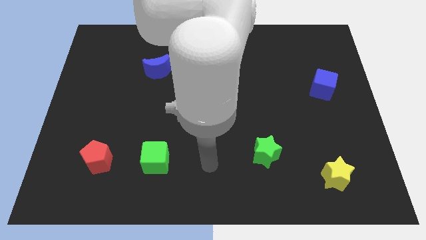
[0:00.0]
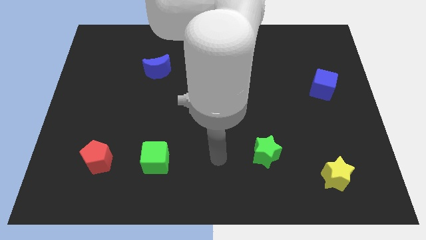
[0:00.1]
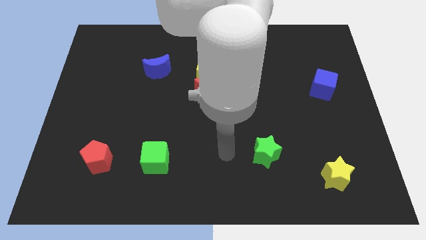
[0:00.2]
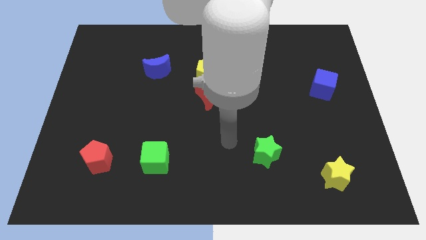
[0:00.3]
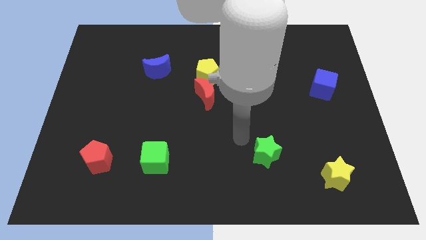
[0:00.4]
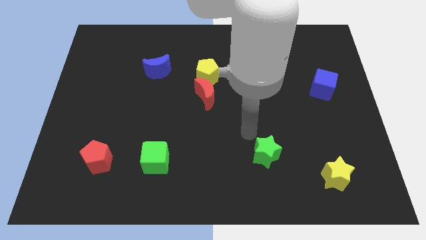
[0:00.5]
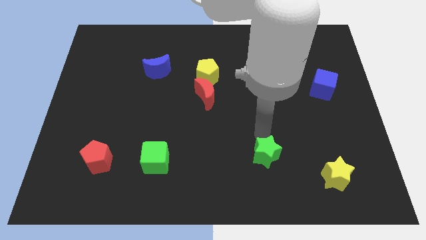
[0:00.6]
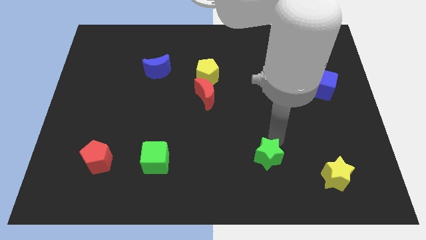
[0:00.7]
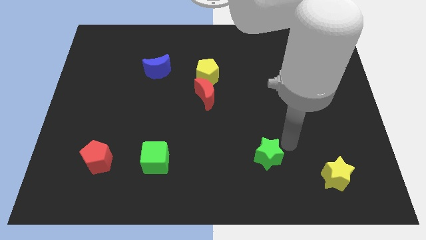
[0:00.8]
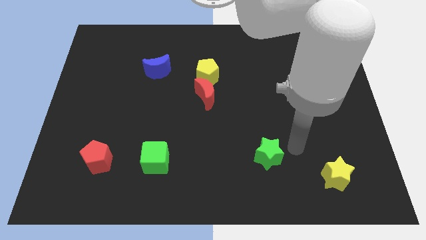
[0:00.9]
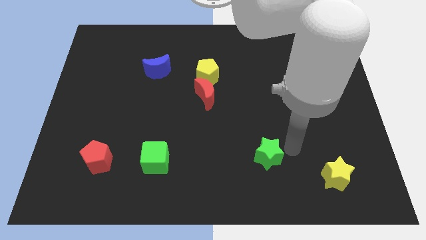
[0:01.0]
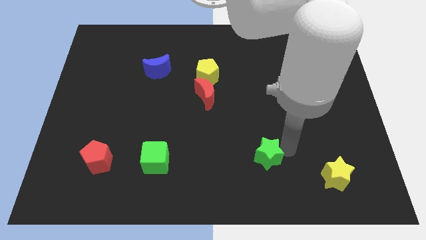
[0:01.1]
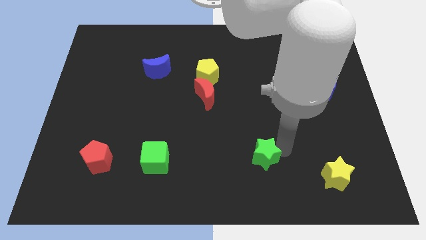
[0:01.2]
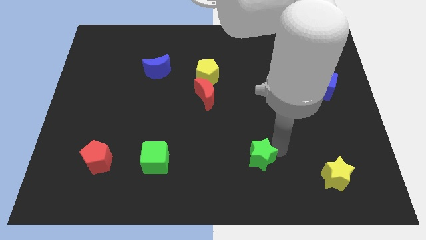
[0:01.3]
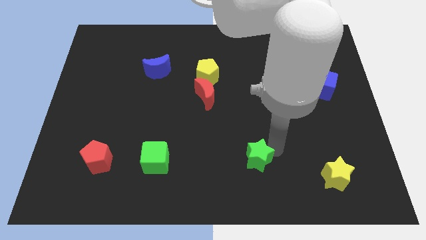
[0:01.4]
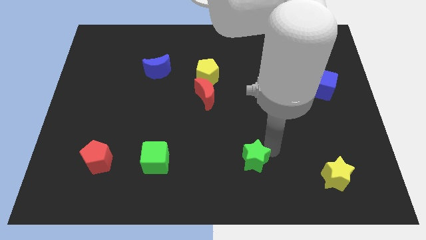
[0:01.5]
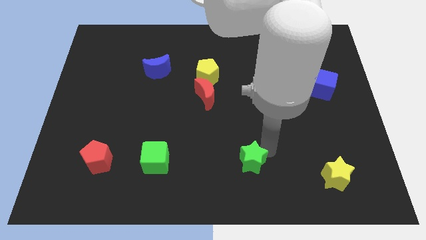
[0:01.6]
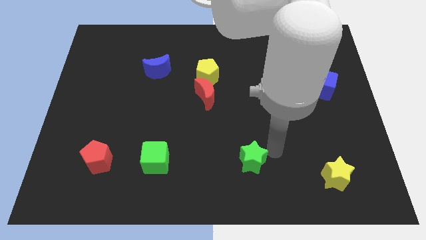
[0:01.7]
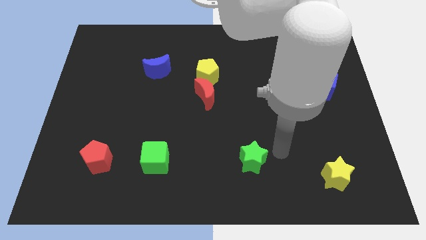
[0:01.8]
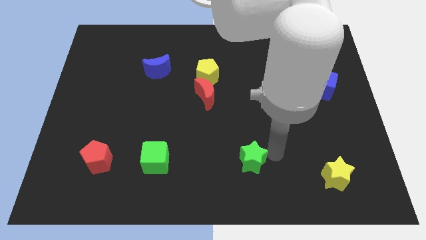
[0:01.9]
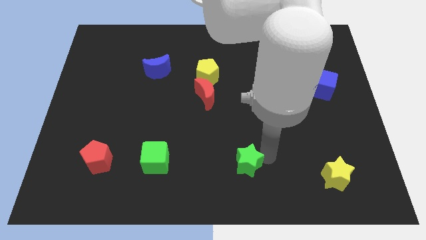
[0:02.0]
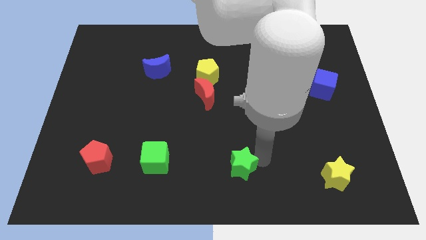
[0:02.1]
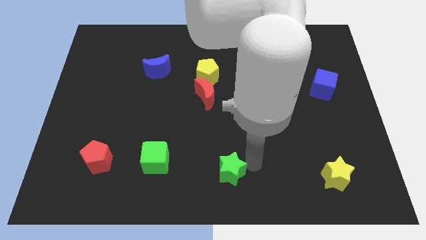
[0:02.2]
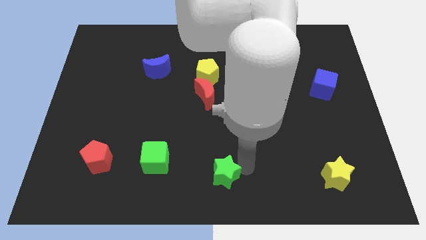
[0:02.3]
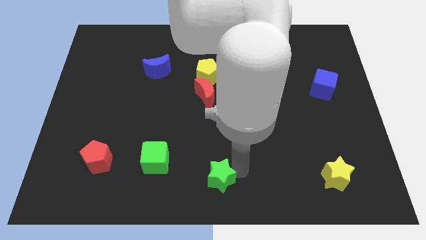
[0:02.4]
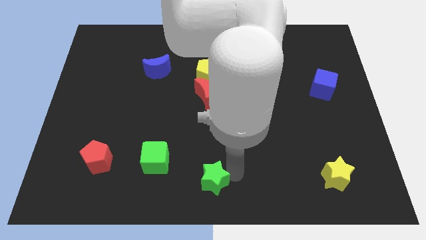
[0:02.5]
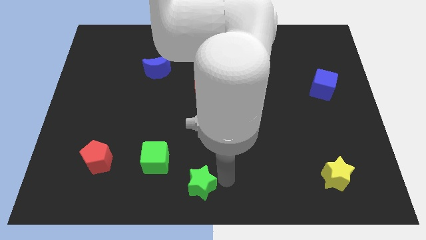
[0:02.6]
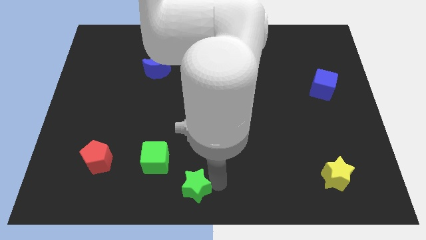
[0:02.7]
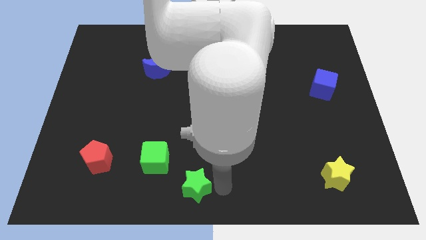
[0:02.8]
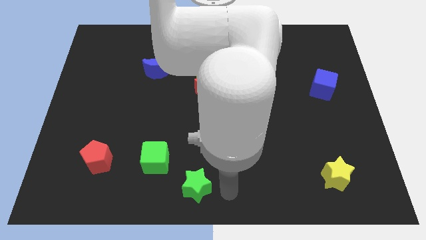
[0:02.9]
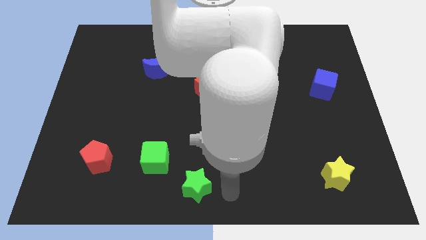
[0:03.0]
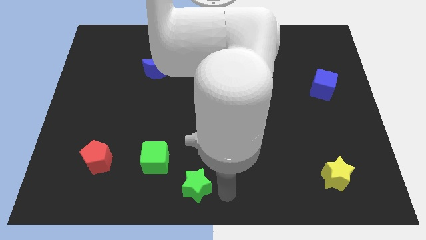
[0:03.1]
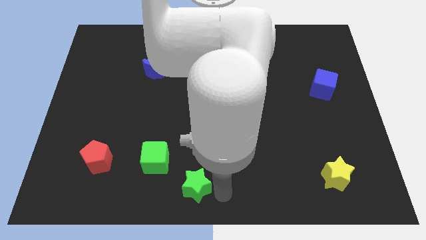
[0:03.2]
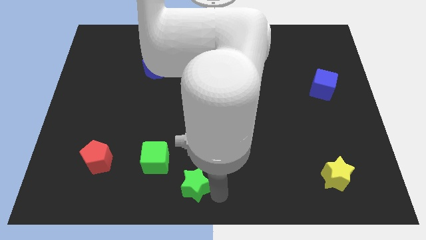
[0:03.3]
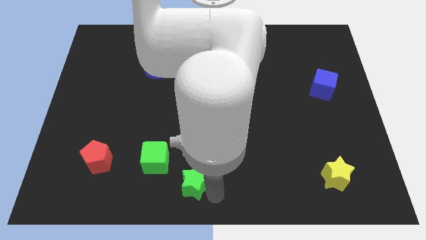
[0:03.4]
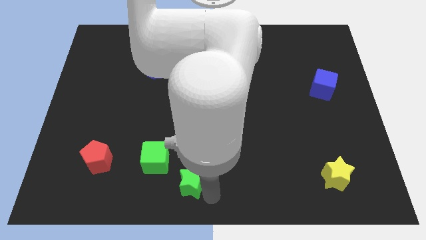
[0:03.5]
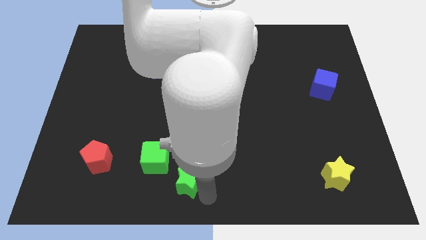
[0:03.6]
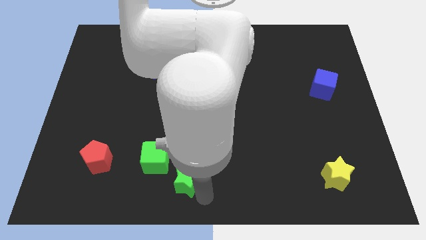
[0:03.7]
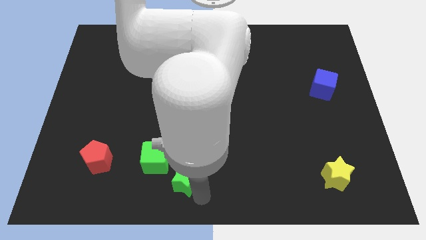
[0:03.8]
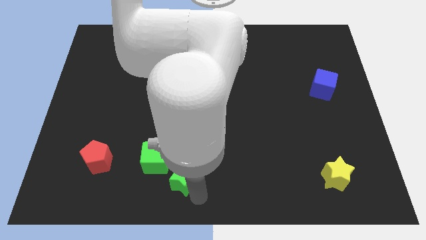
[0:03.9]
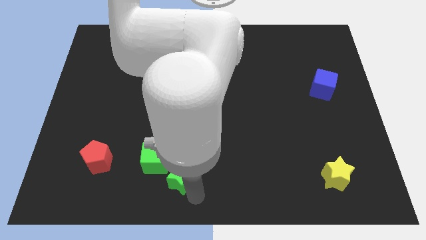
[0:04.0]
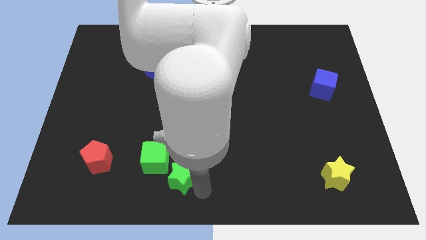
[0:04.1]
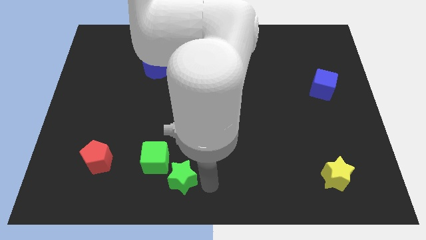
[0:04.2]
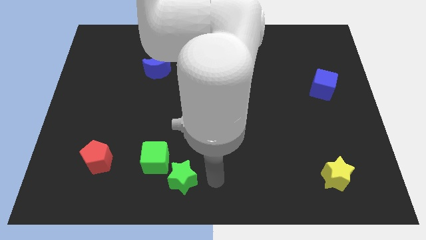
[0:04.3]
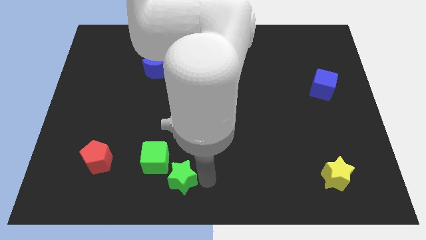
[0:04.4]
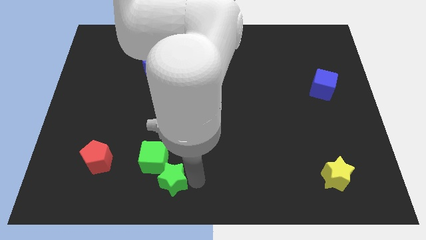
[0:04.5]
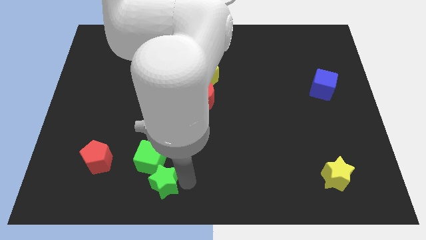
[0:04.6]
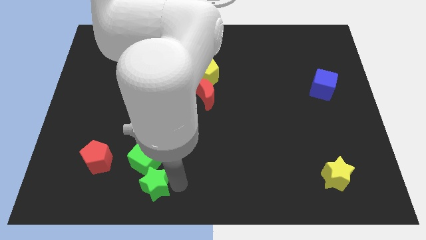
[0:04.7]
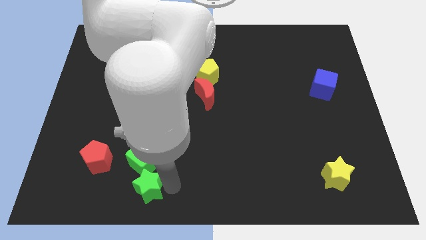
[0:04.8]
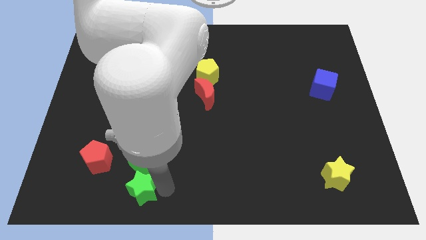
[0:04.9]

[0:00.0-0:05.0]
push the green star diagonally down and to the right of the red pentagon
